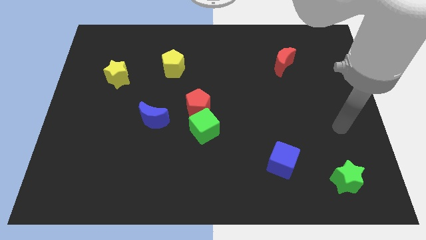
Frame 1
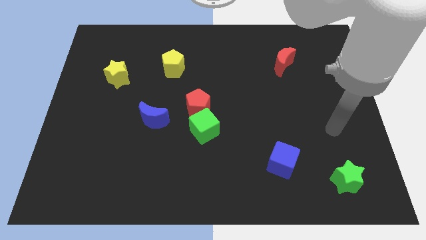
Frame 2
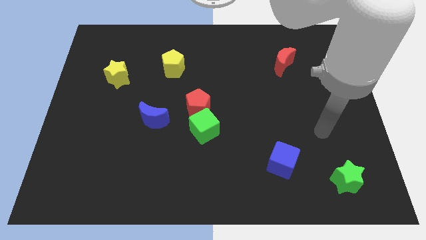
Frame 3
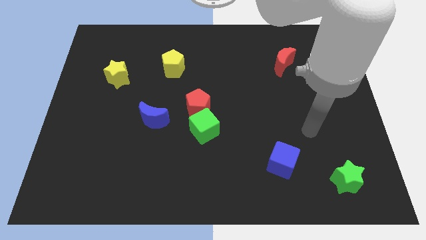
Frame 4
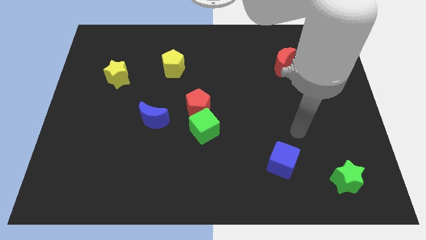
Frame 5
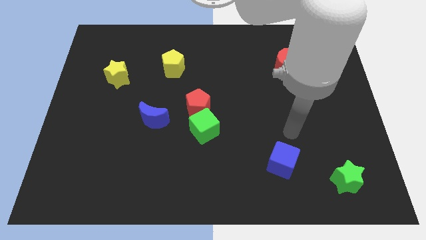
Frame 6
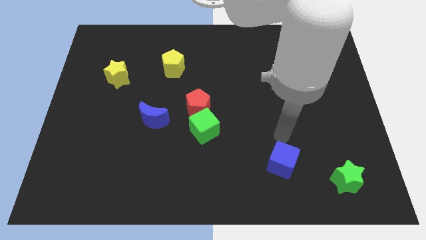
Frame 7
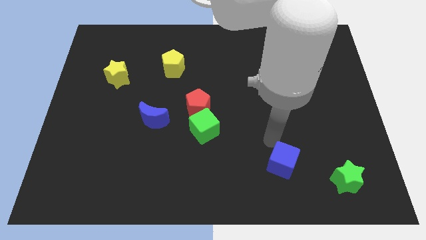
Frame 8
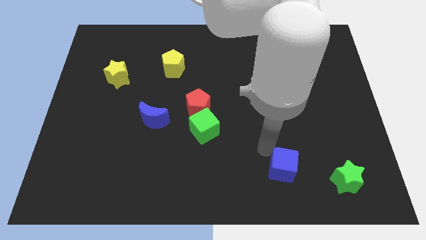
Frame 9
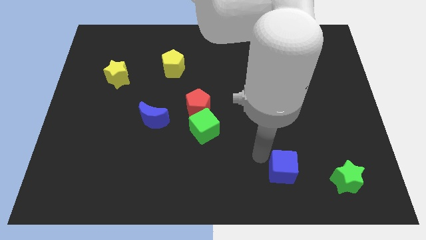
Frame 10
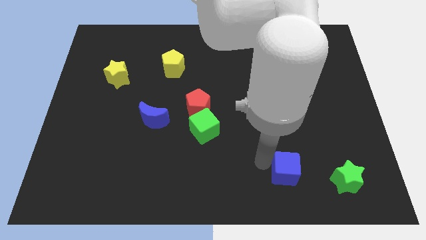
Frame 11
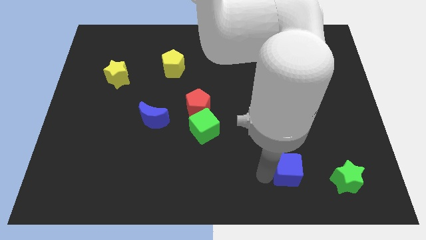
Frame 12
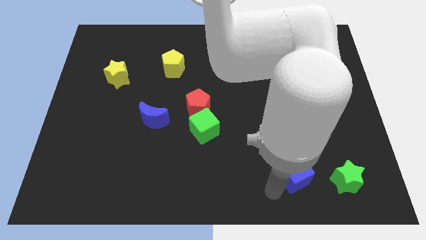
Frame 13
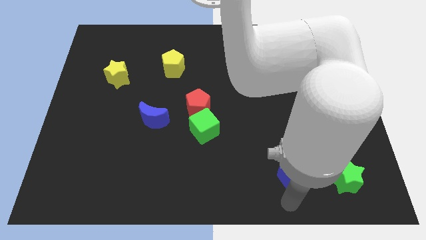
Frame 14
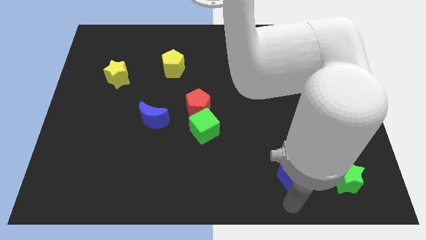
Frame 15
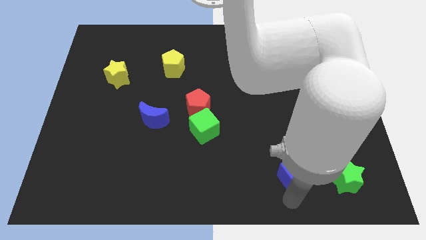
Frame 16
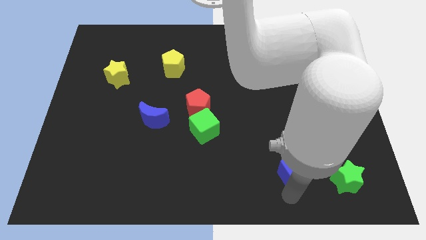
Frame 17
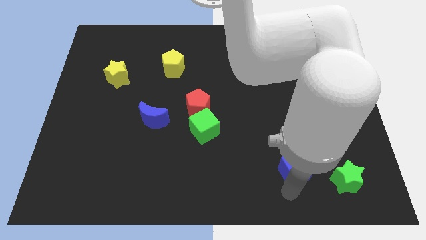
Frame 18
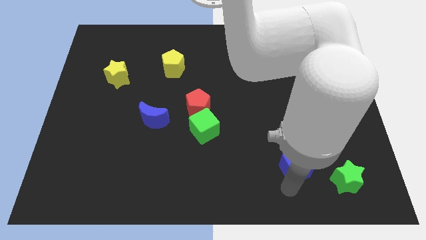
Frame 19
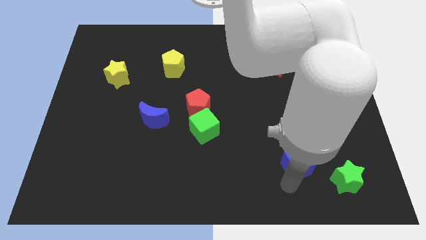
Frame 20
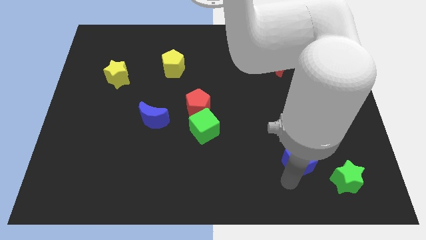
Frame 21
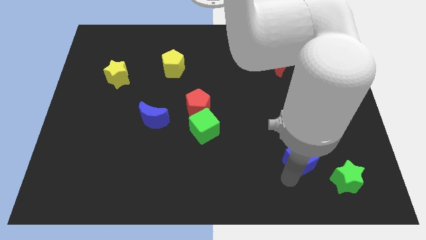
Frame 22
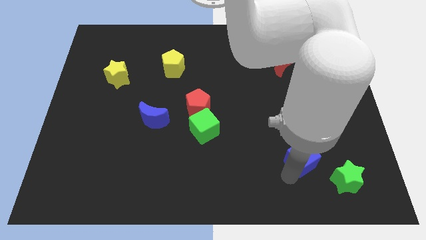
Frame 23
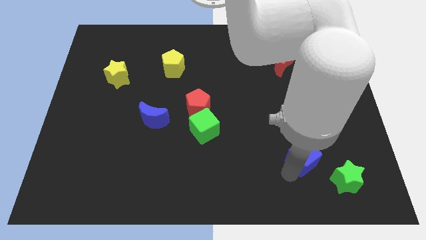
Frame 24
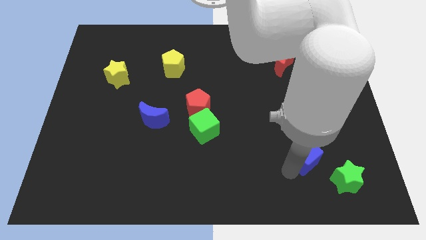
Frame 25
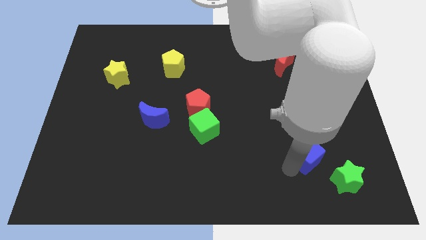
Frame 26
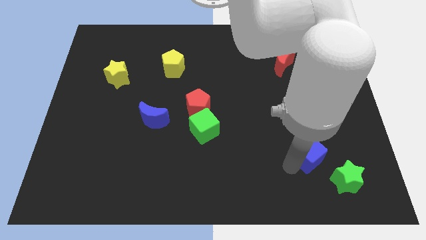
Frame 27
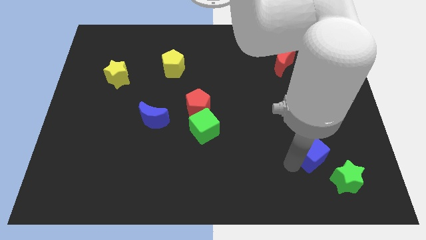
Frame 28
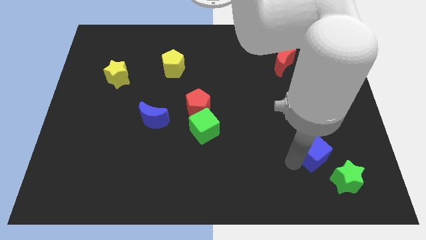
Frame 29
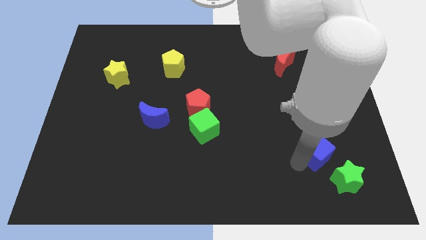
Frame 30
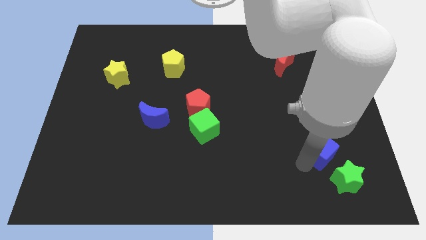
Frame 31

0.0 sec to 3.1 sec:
slightly slide the blue cube upwards and then right

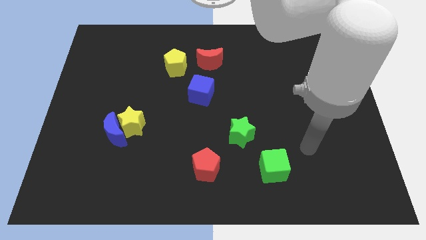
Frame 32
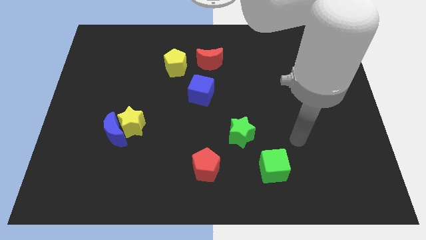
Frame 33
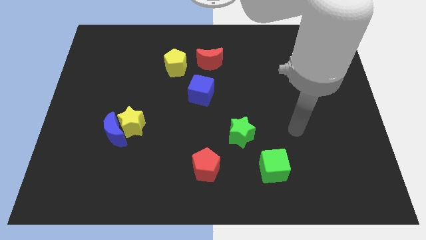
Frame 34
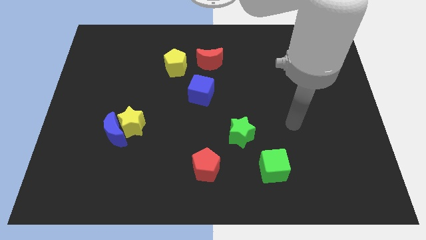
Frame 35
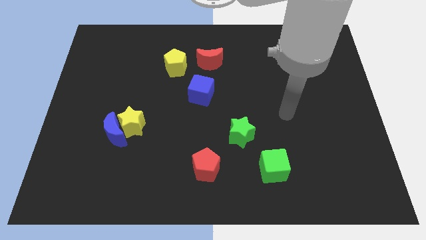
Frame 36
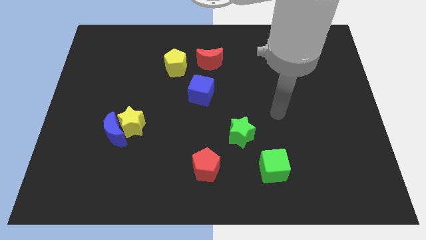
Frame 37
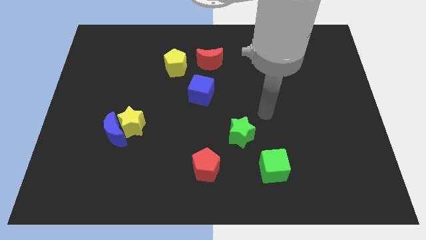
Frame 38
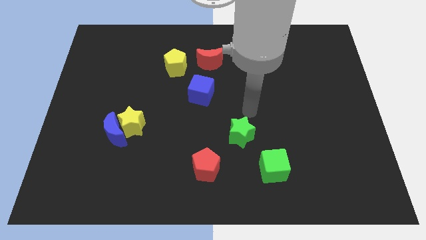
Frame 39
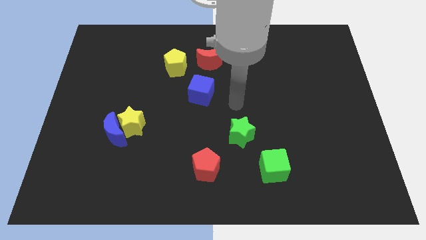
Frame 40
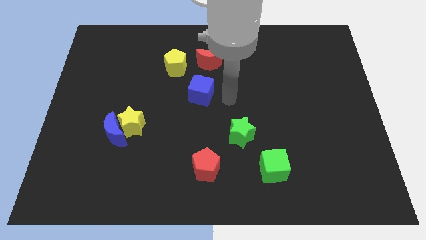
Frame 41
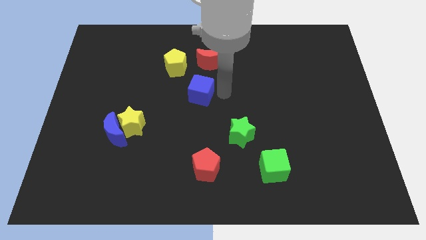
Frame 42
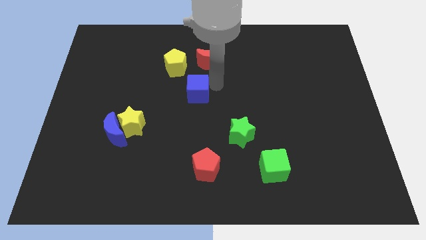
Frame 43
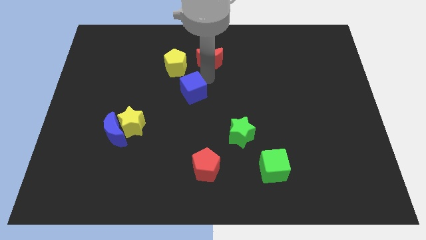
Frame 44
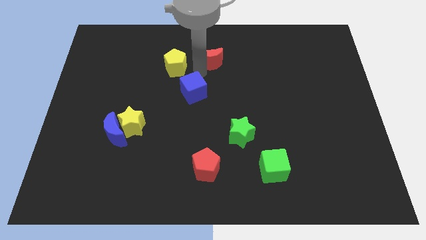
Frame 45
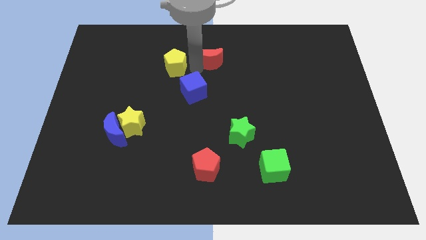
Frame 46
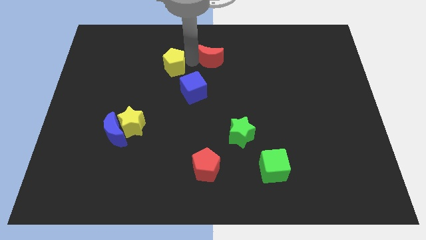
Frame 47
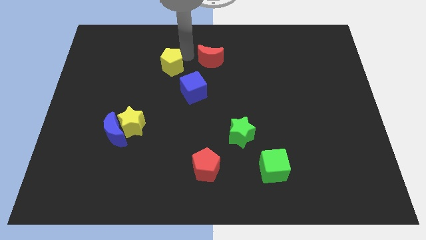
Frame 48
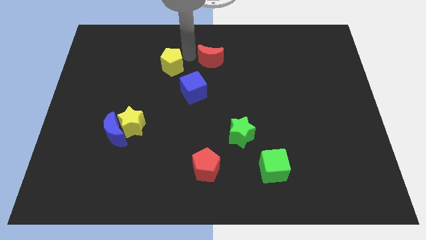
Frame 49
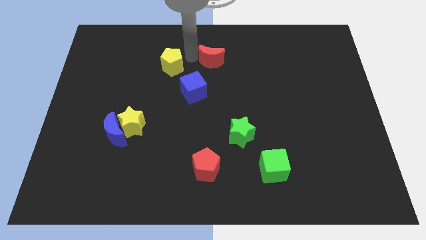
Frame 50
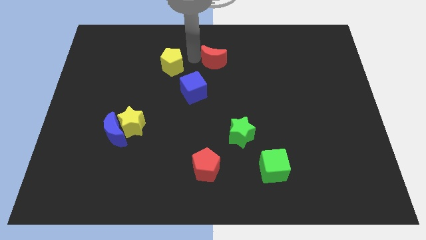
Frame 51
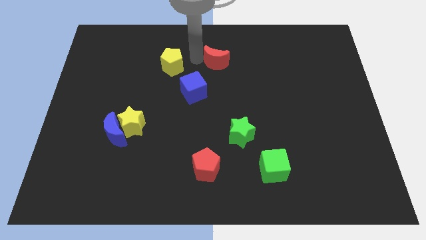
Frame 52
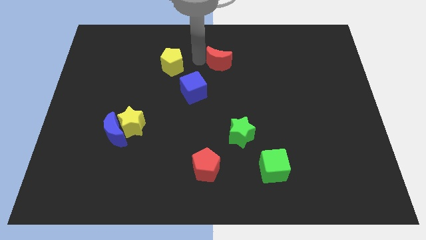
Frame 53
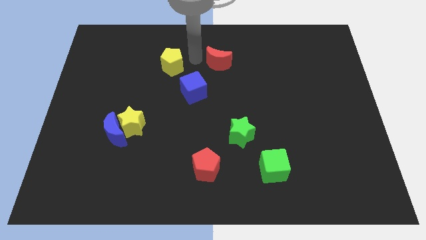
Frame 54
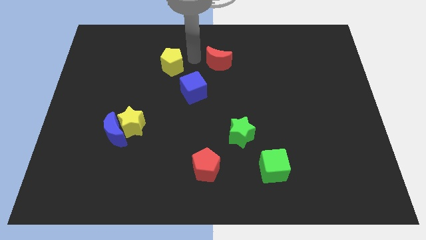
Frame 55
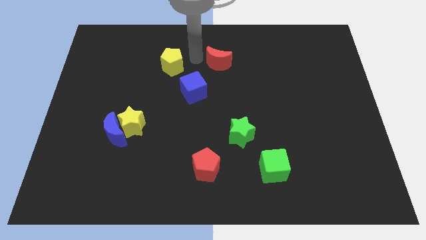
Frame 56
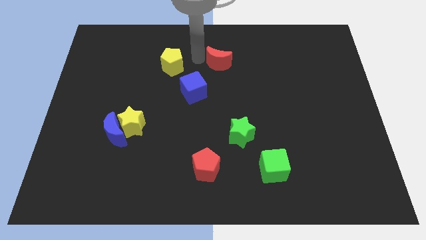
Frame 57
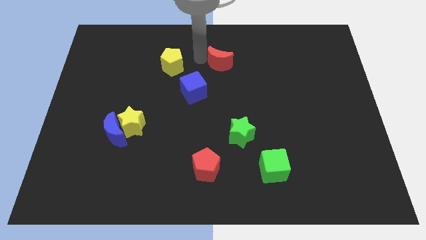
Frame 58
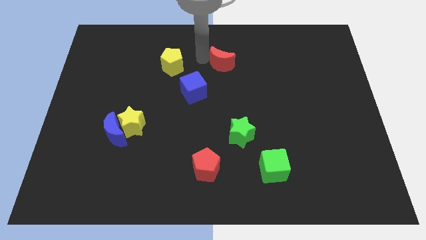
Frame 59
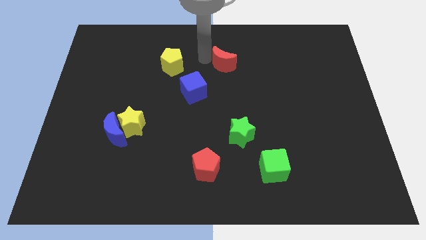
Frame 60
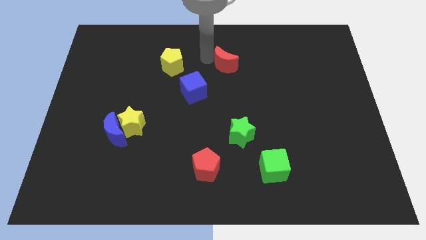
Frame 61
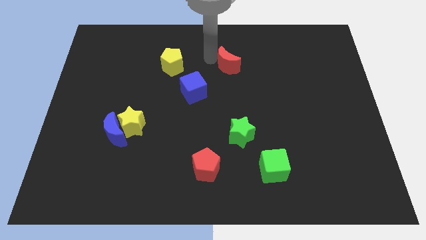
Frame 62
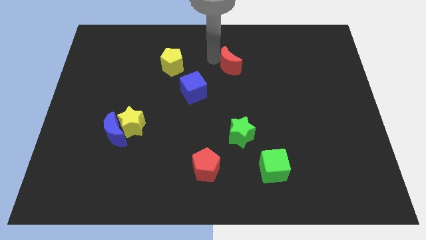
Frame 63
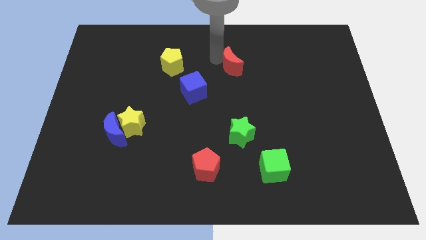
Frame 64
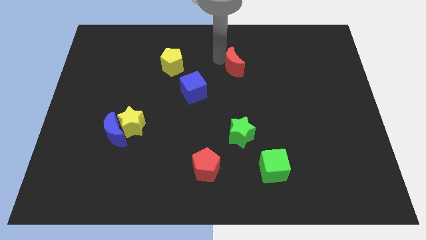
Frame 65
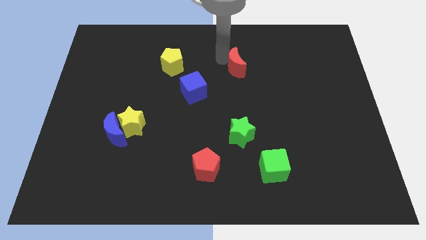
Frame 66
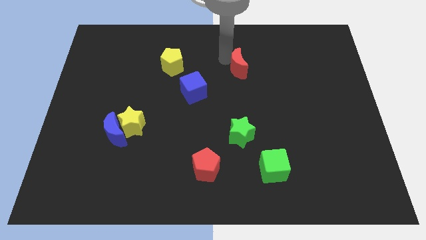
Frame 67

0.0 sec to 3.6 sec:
slightly slide the red moon to the right

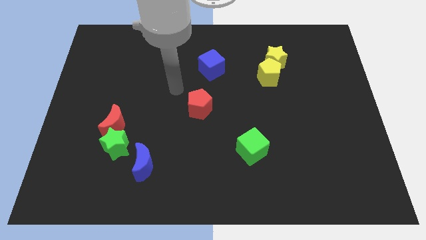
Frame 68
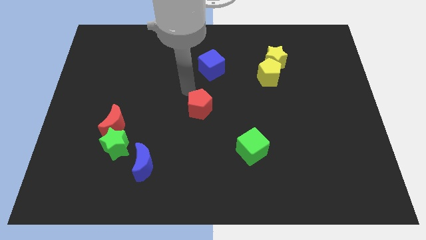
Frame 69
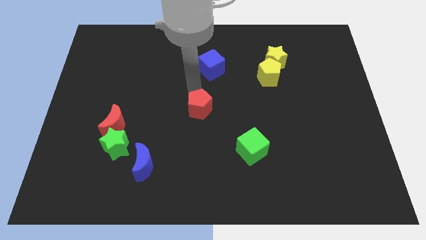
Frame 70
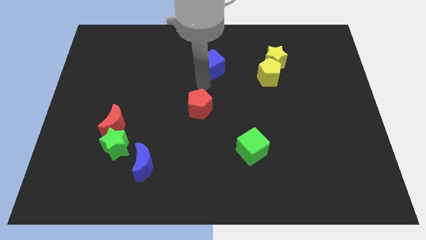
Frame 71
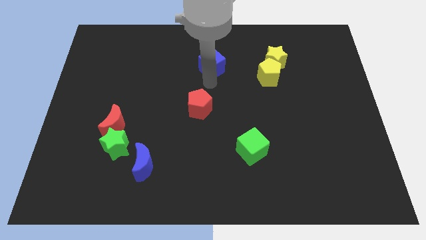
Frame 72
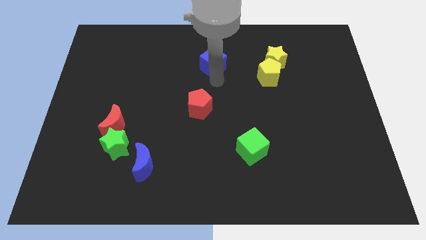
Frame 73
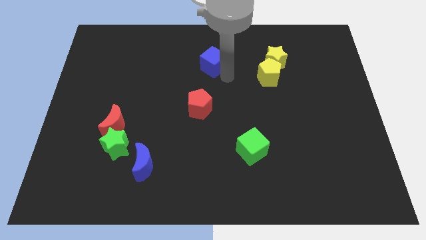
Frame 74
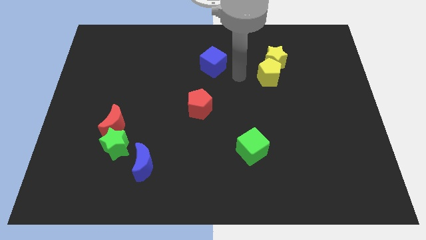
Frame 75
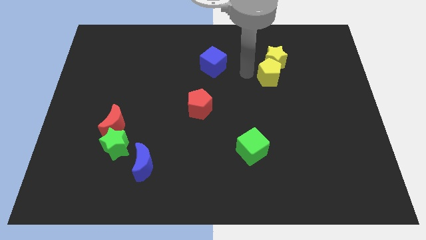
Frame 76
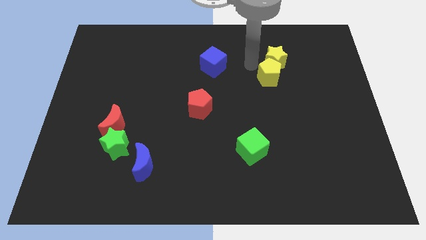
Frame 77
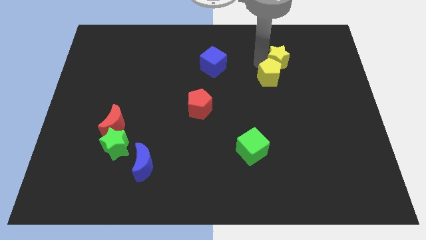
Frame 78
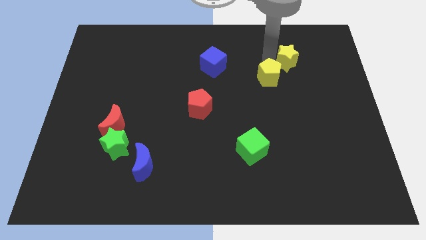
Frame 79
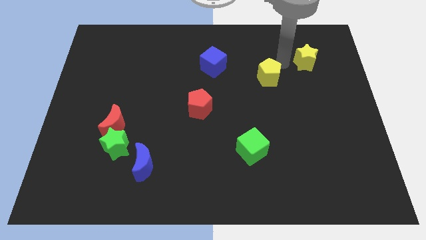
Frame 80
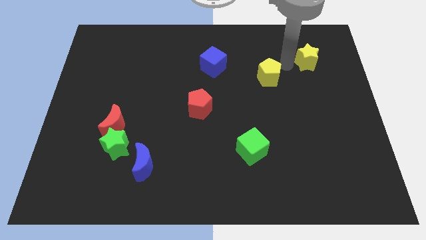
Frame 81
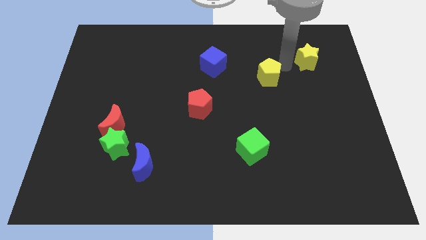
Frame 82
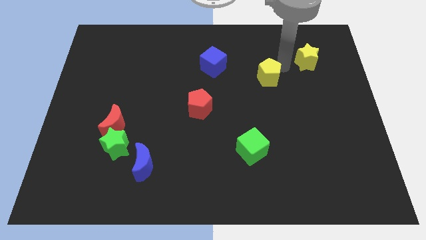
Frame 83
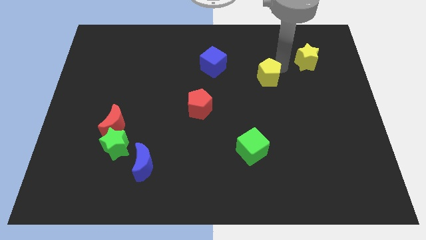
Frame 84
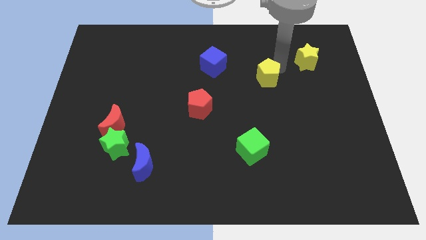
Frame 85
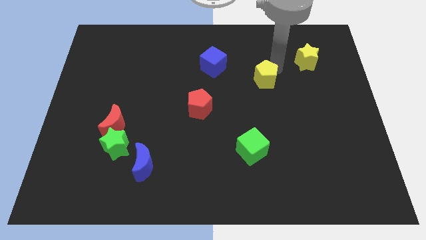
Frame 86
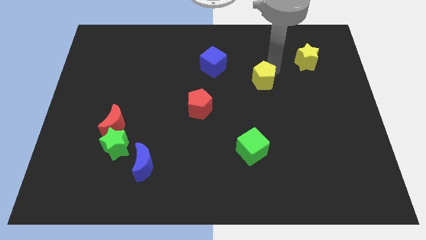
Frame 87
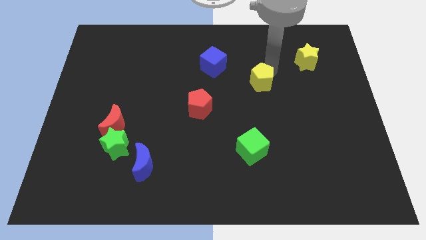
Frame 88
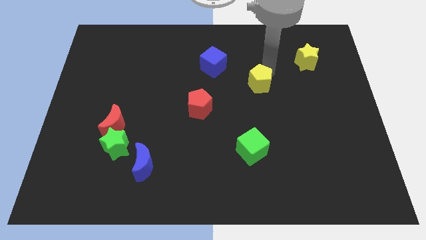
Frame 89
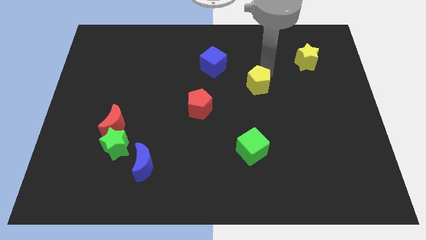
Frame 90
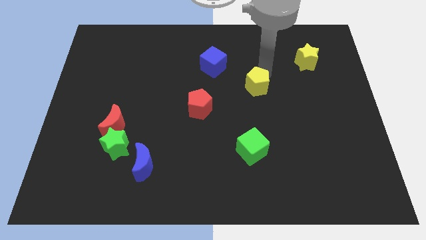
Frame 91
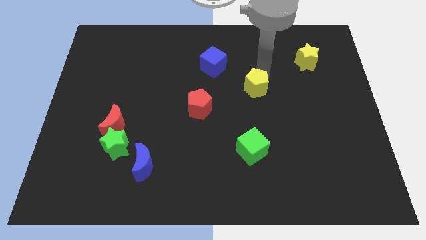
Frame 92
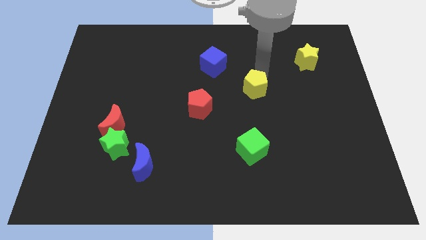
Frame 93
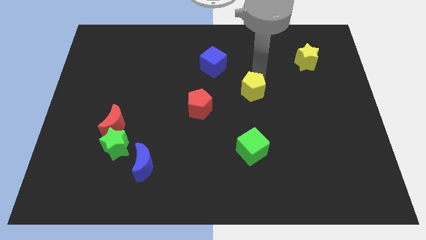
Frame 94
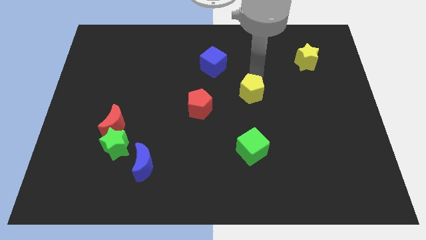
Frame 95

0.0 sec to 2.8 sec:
slide the yellow pentagon a bit downwards and left
